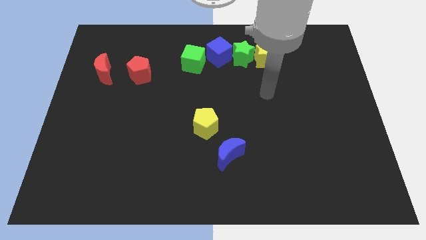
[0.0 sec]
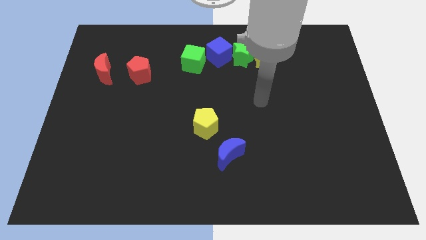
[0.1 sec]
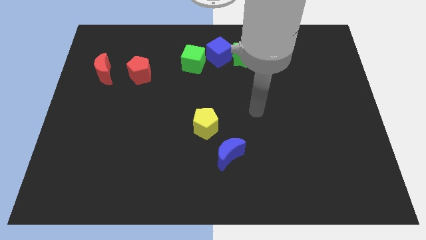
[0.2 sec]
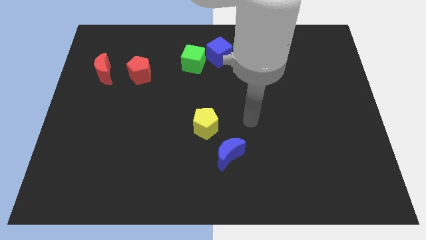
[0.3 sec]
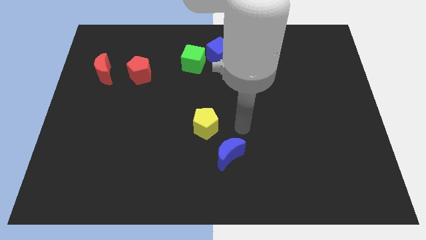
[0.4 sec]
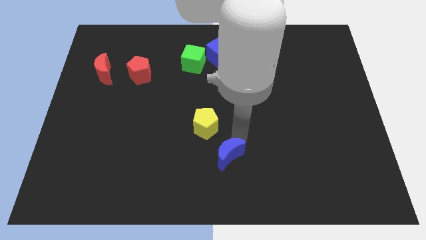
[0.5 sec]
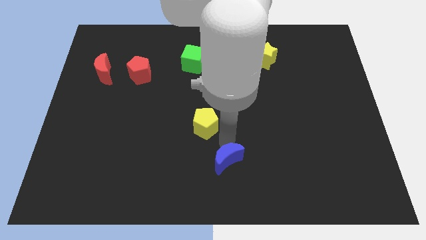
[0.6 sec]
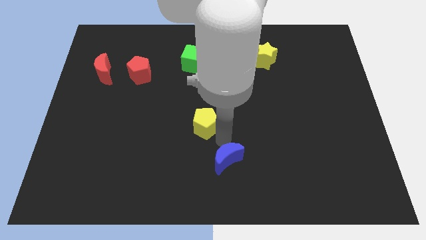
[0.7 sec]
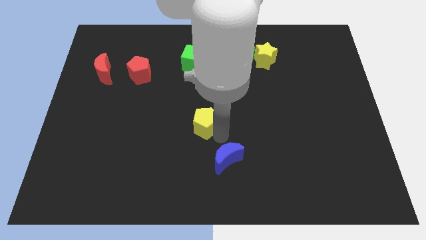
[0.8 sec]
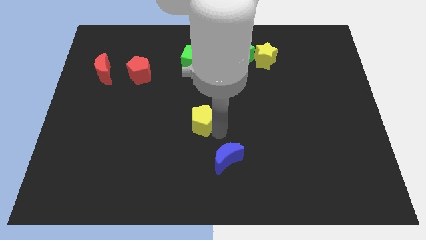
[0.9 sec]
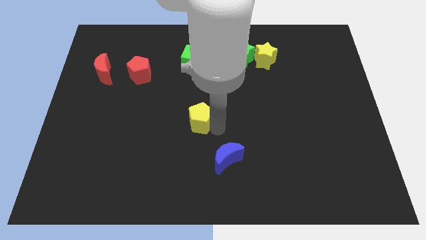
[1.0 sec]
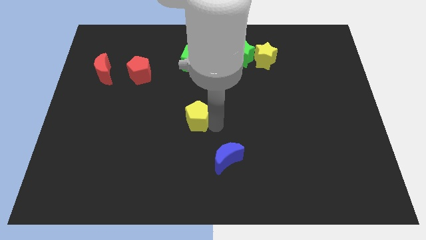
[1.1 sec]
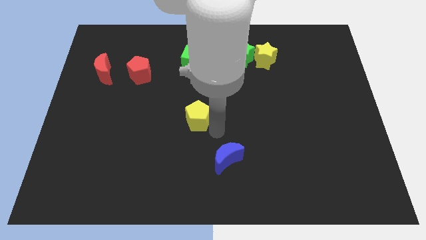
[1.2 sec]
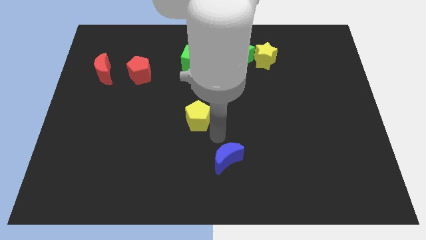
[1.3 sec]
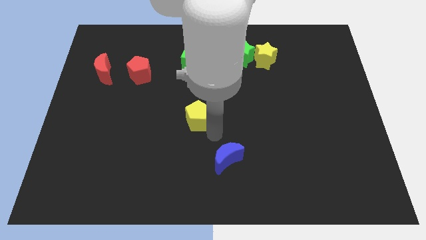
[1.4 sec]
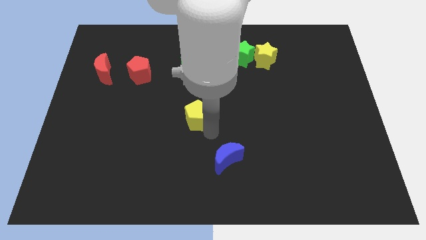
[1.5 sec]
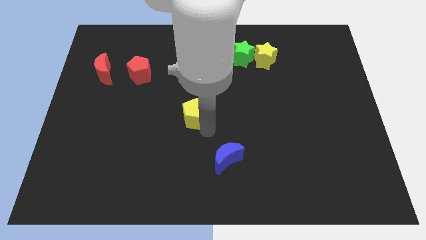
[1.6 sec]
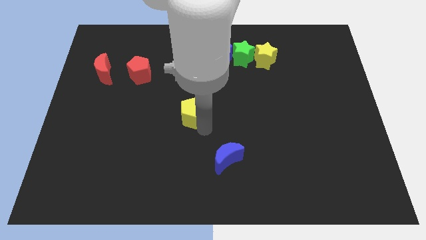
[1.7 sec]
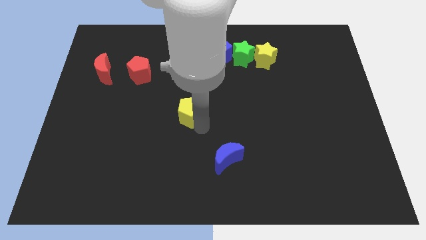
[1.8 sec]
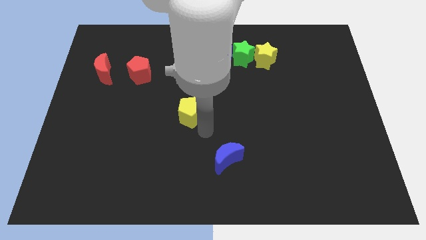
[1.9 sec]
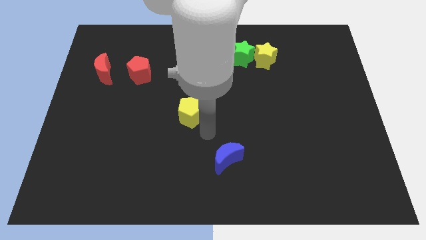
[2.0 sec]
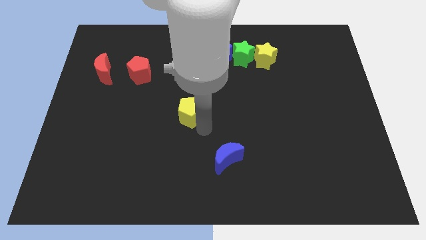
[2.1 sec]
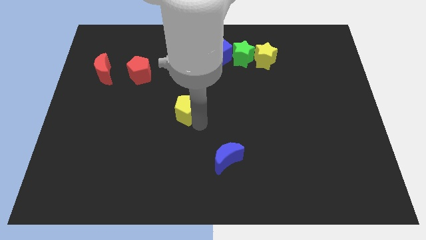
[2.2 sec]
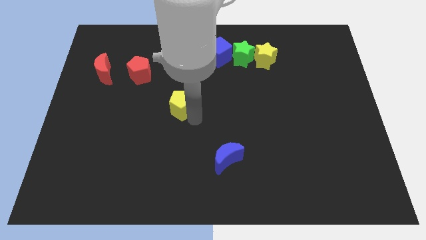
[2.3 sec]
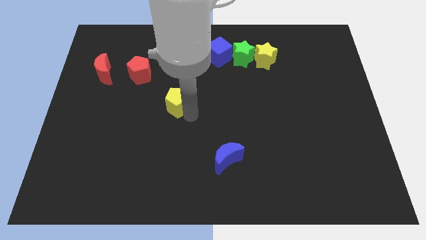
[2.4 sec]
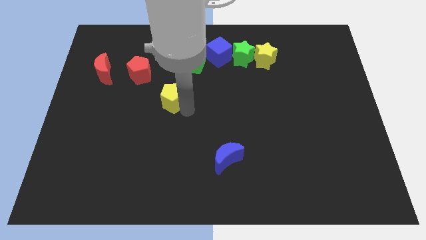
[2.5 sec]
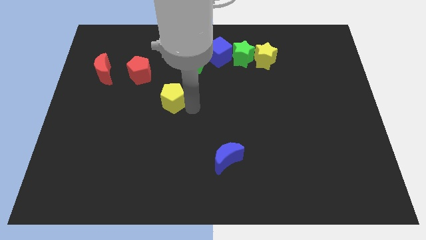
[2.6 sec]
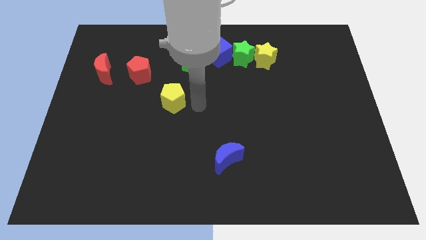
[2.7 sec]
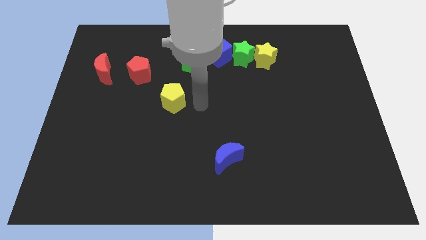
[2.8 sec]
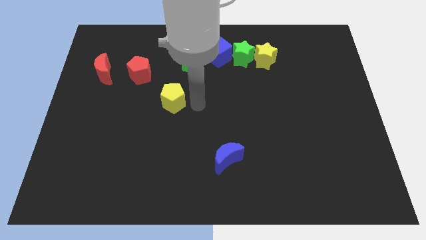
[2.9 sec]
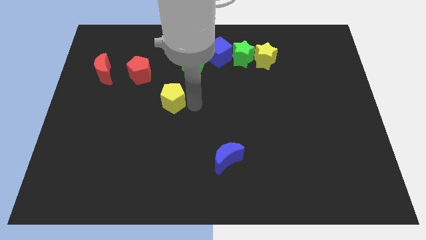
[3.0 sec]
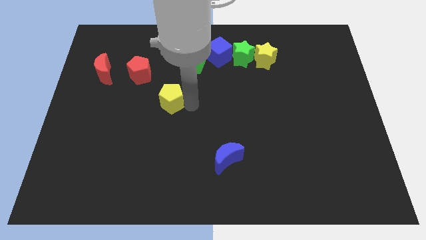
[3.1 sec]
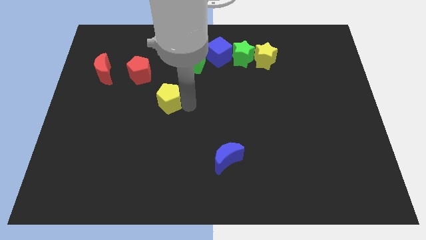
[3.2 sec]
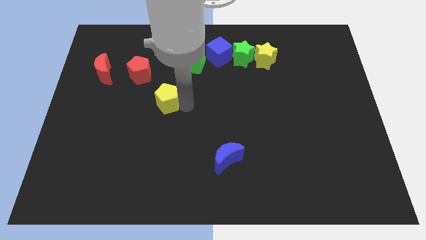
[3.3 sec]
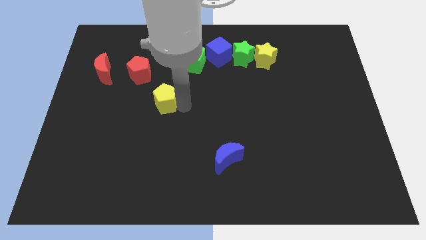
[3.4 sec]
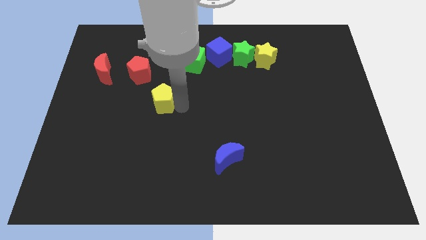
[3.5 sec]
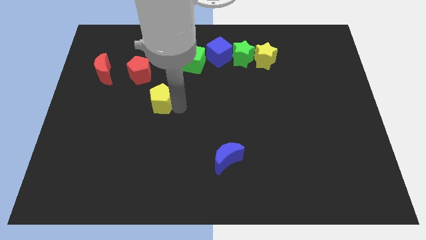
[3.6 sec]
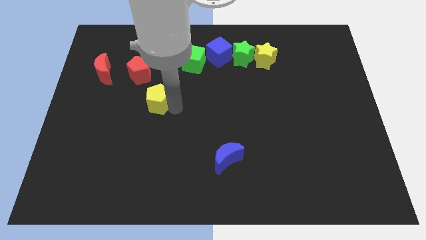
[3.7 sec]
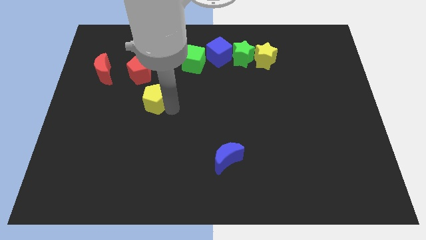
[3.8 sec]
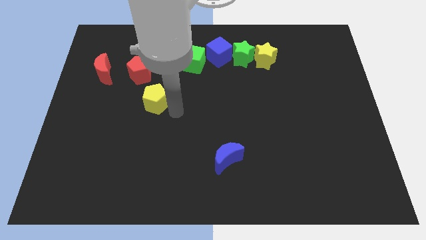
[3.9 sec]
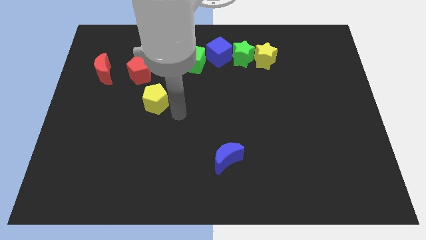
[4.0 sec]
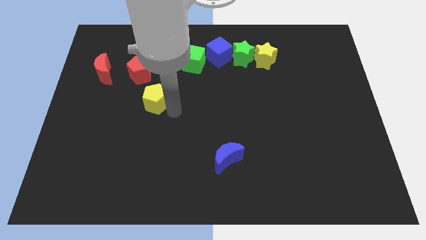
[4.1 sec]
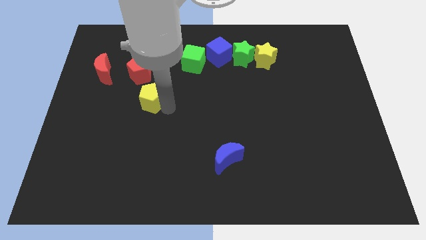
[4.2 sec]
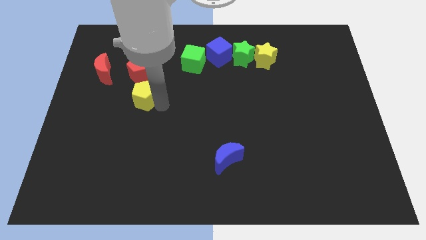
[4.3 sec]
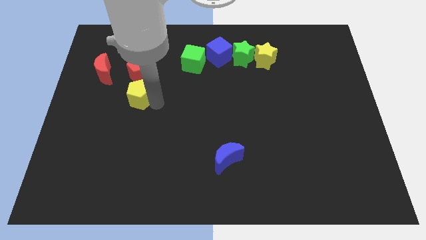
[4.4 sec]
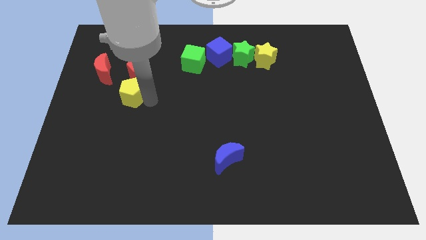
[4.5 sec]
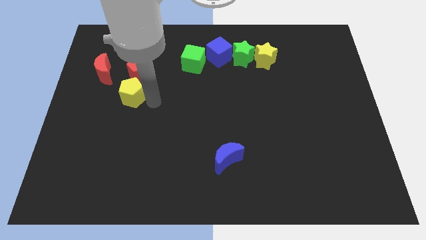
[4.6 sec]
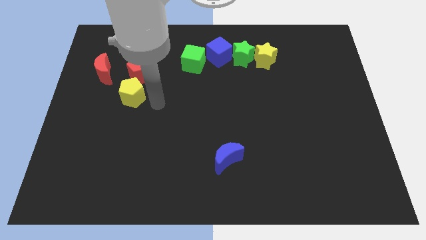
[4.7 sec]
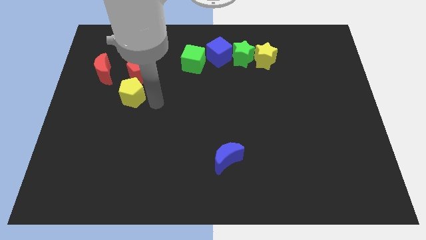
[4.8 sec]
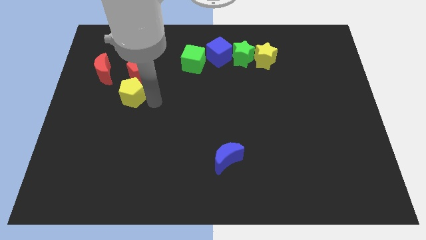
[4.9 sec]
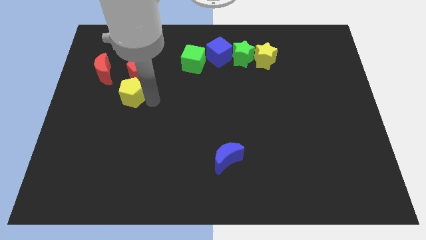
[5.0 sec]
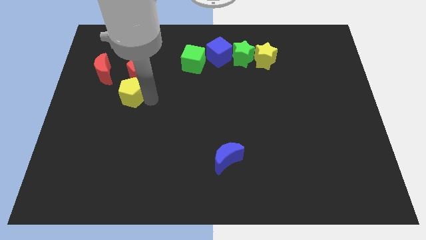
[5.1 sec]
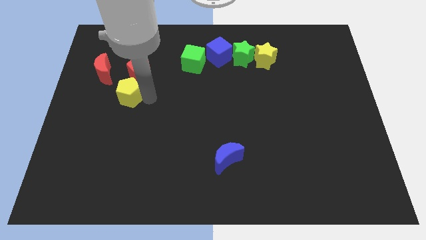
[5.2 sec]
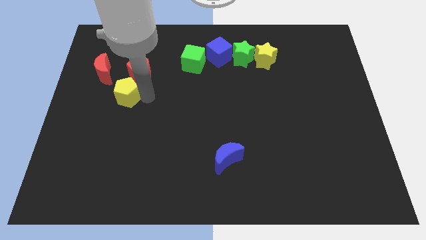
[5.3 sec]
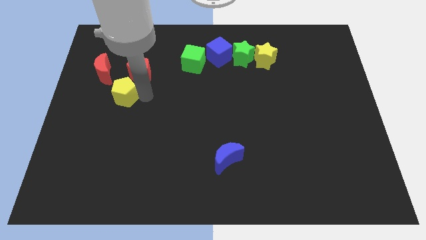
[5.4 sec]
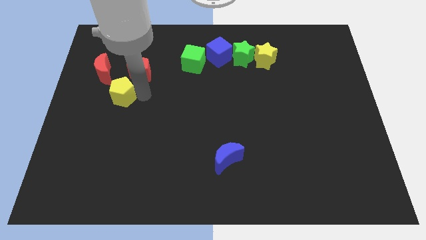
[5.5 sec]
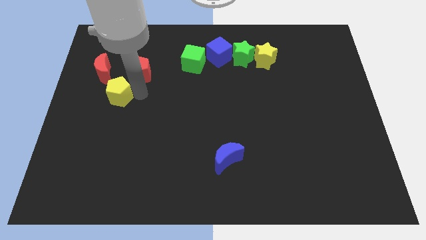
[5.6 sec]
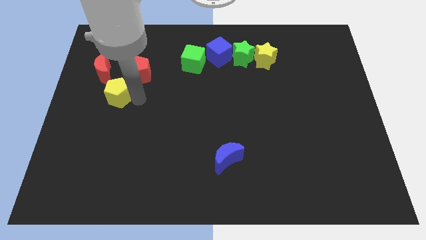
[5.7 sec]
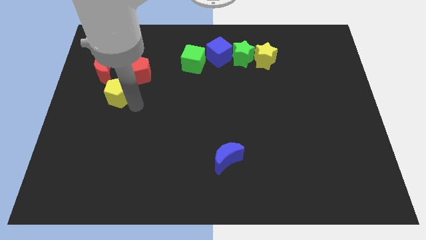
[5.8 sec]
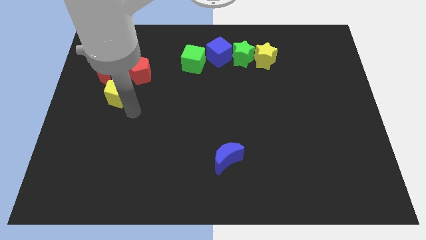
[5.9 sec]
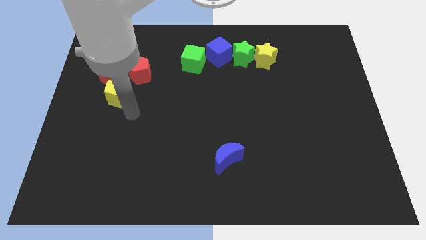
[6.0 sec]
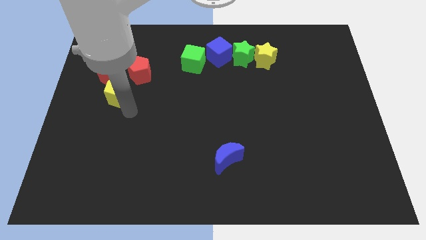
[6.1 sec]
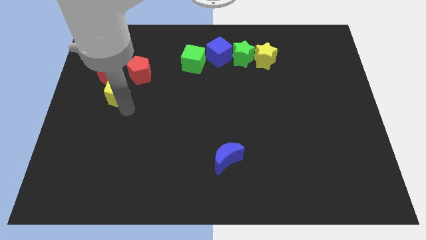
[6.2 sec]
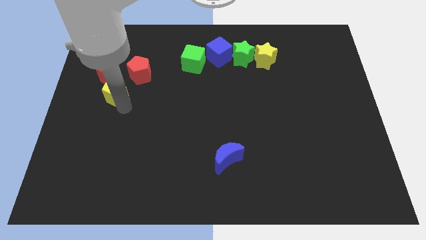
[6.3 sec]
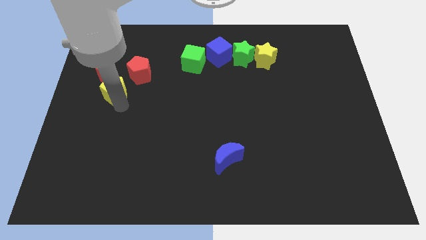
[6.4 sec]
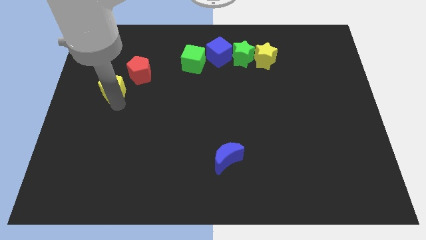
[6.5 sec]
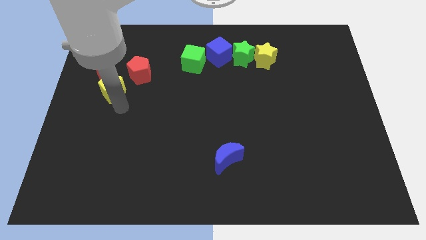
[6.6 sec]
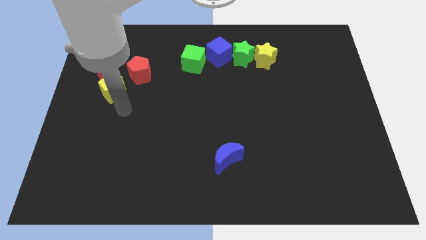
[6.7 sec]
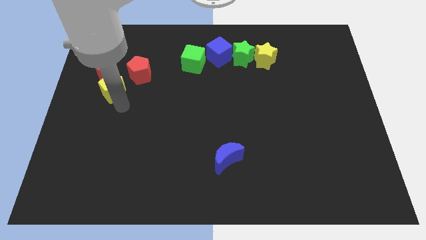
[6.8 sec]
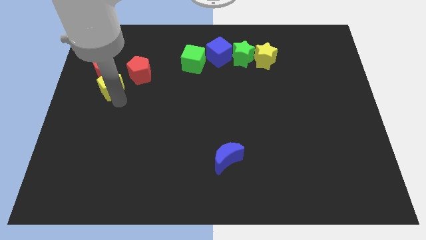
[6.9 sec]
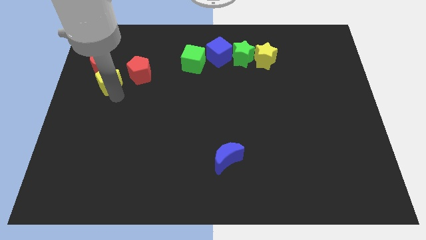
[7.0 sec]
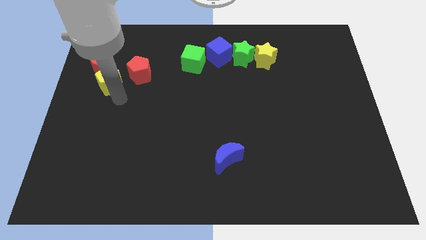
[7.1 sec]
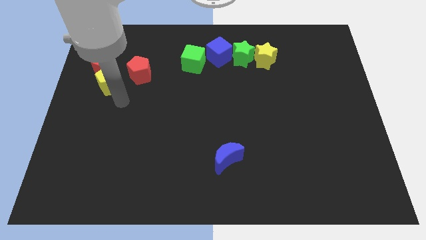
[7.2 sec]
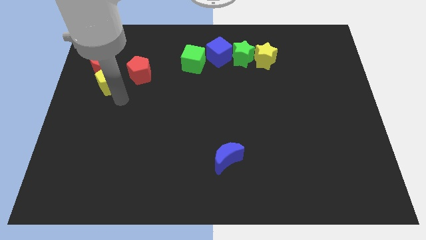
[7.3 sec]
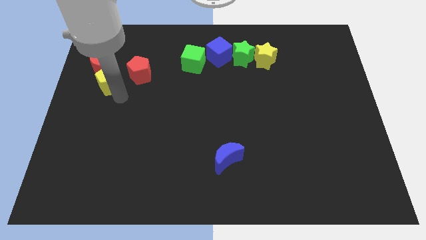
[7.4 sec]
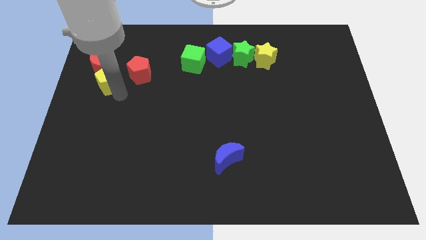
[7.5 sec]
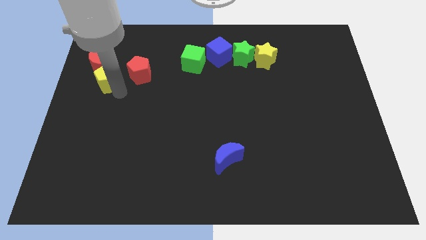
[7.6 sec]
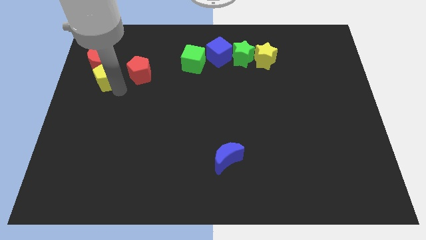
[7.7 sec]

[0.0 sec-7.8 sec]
move the yellow pentagon towards the red moon

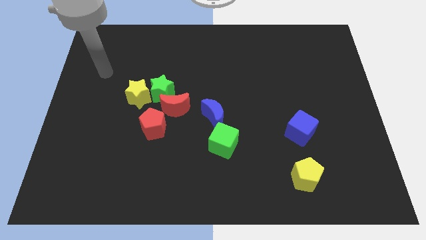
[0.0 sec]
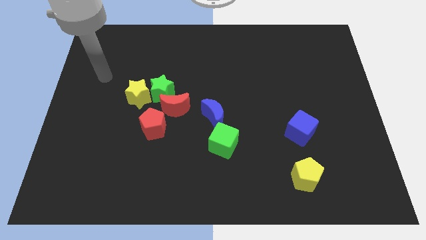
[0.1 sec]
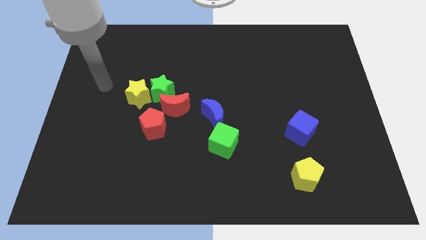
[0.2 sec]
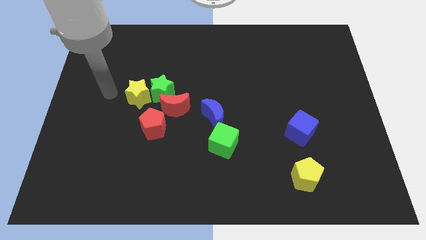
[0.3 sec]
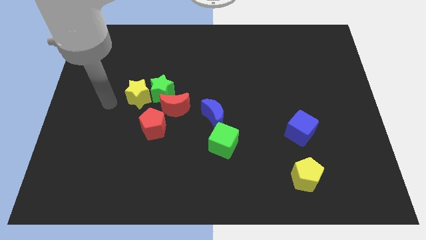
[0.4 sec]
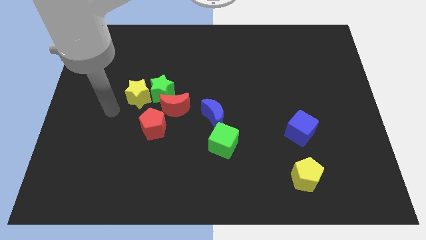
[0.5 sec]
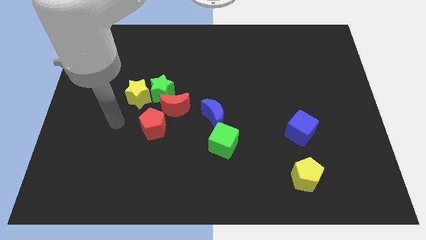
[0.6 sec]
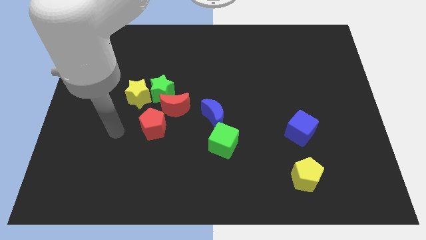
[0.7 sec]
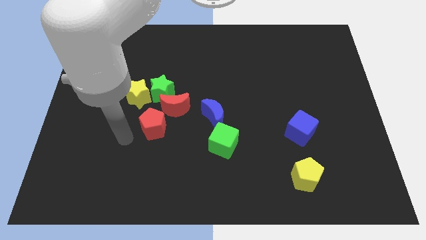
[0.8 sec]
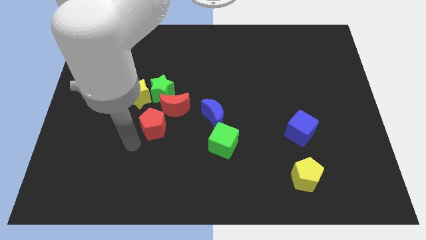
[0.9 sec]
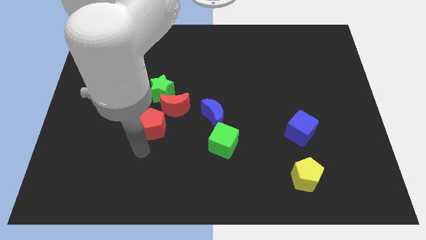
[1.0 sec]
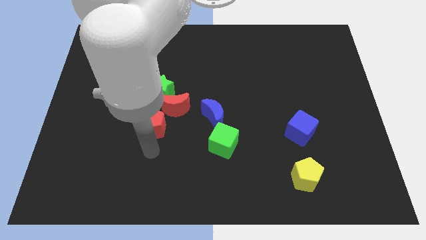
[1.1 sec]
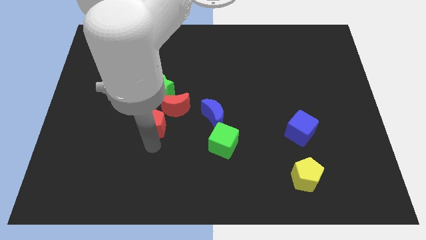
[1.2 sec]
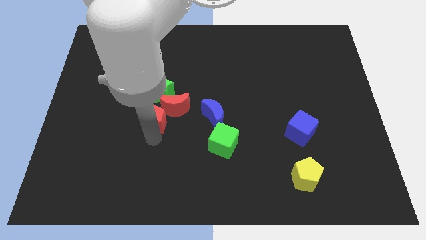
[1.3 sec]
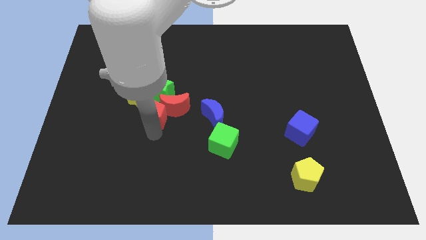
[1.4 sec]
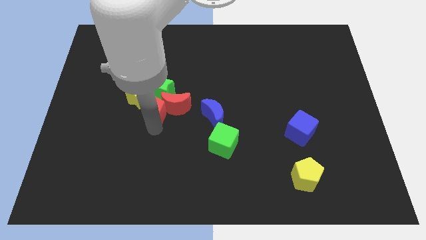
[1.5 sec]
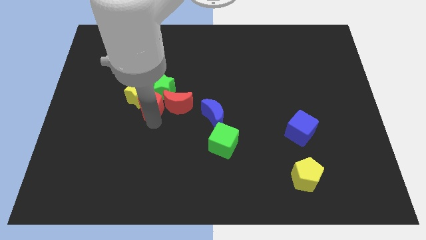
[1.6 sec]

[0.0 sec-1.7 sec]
push the red pentagon to the green star
